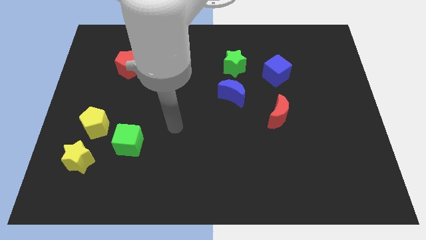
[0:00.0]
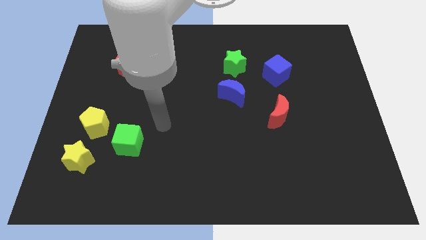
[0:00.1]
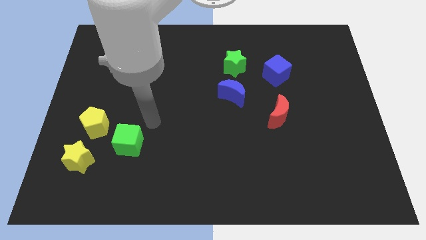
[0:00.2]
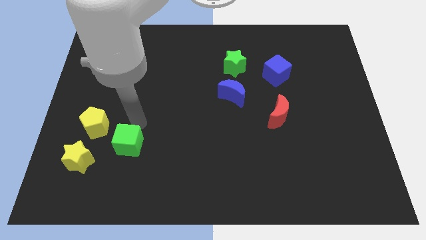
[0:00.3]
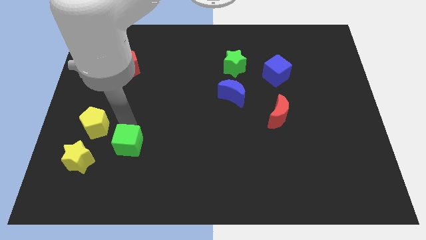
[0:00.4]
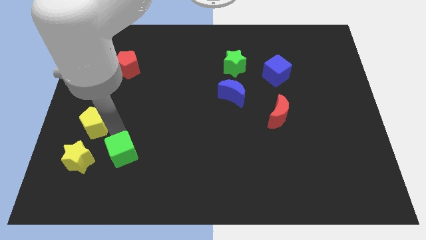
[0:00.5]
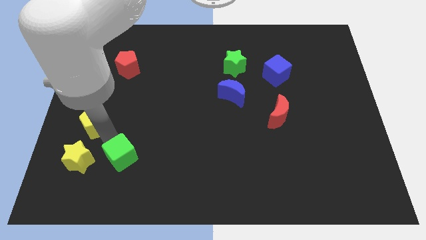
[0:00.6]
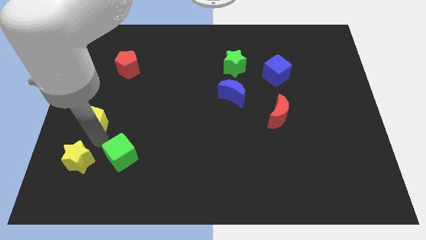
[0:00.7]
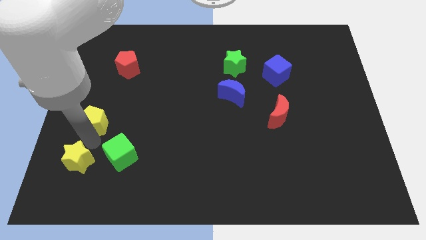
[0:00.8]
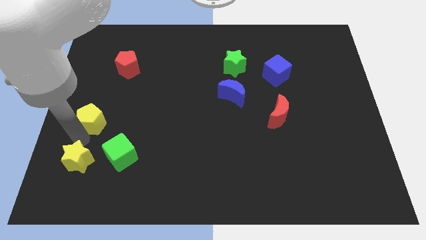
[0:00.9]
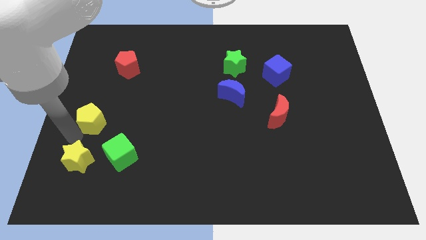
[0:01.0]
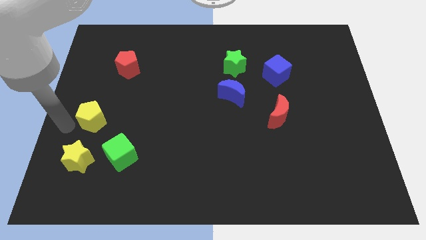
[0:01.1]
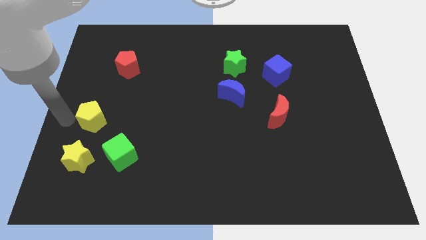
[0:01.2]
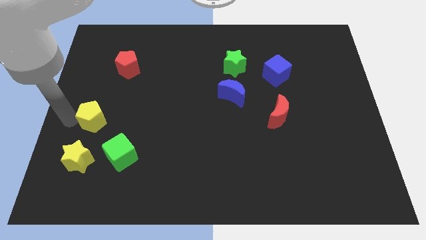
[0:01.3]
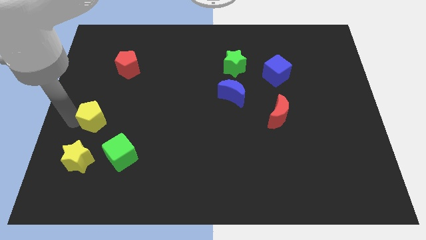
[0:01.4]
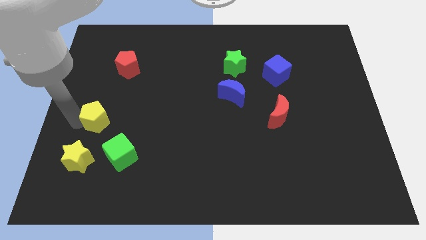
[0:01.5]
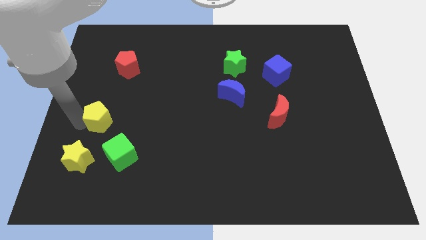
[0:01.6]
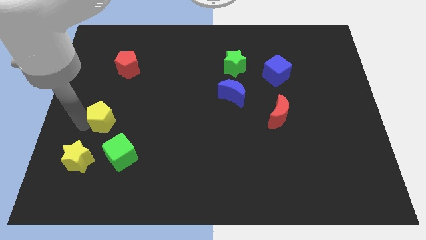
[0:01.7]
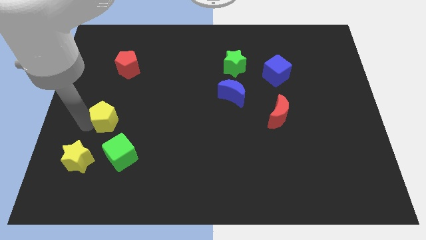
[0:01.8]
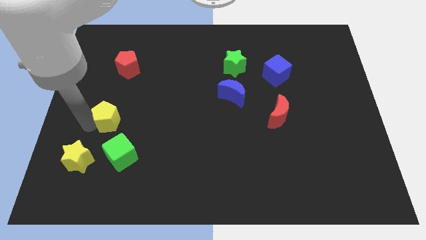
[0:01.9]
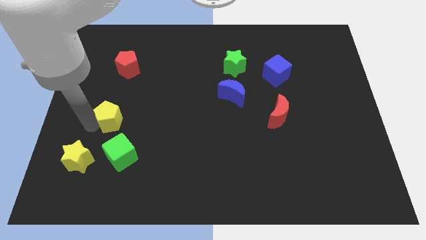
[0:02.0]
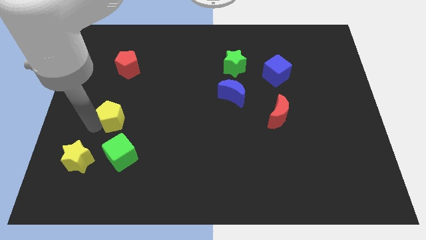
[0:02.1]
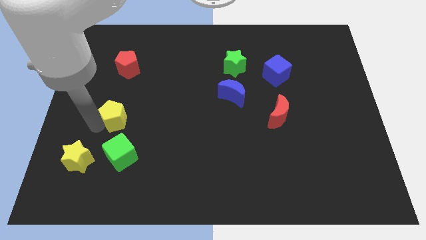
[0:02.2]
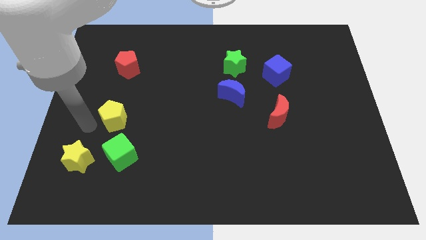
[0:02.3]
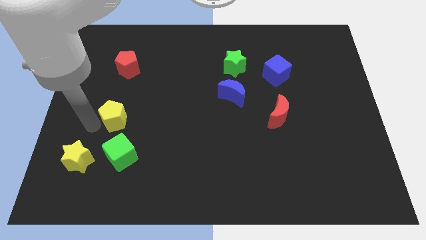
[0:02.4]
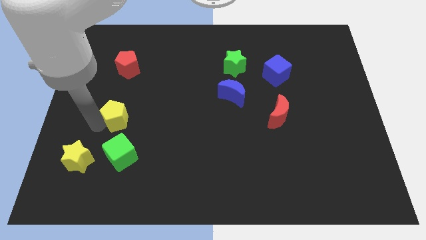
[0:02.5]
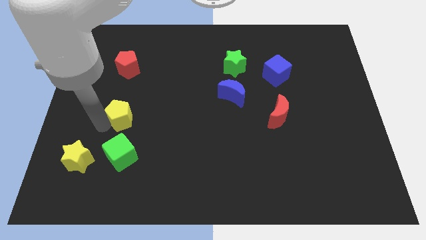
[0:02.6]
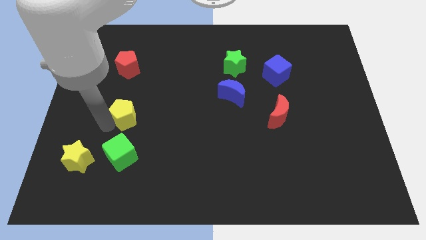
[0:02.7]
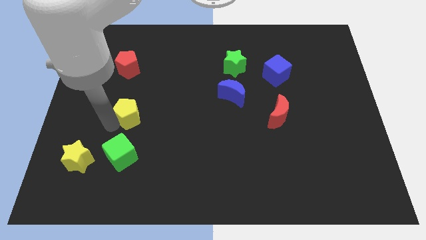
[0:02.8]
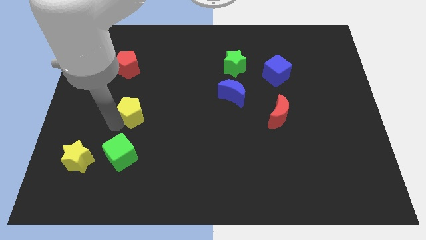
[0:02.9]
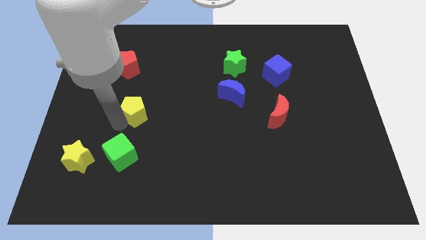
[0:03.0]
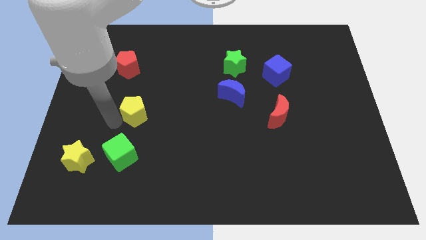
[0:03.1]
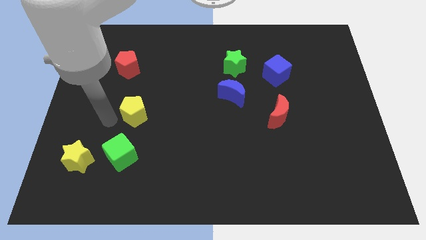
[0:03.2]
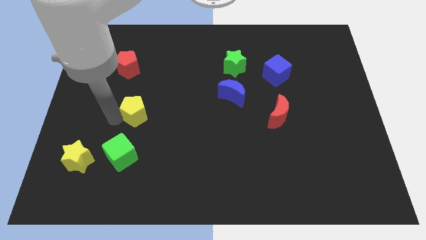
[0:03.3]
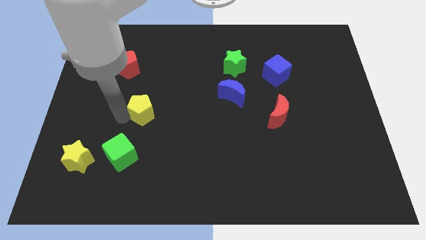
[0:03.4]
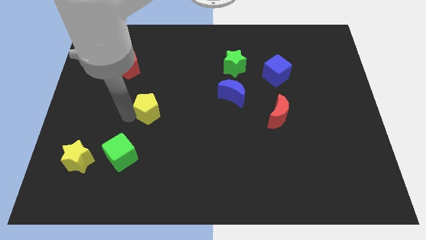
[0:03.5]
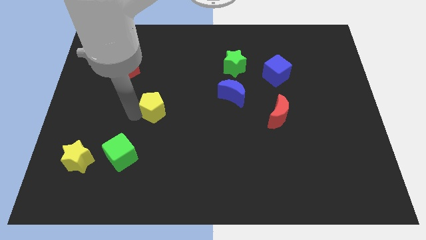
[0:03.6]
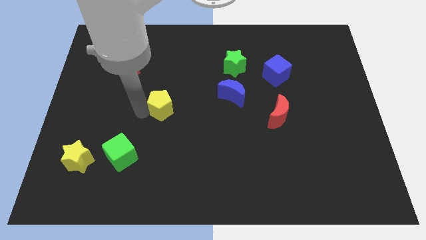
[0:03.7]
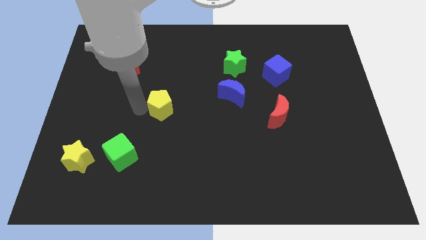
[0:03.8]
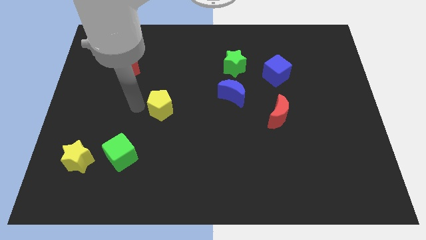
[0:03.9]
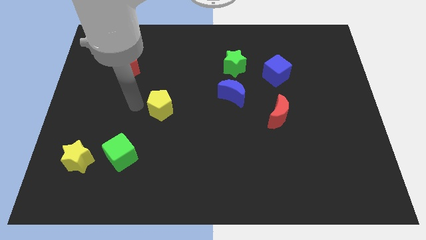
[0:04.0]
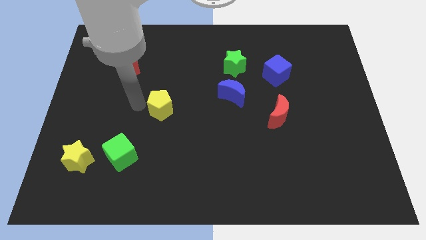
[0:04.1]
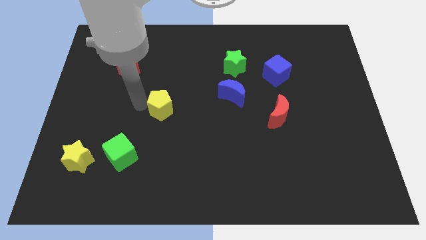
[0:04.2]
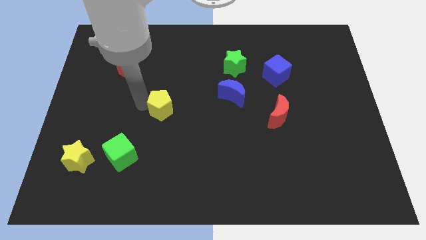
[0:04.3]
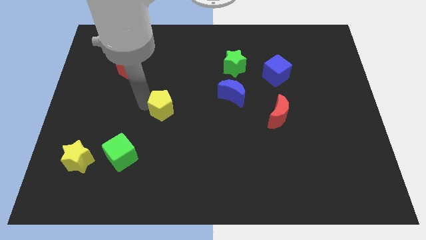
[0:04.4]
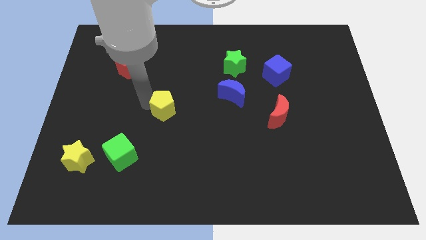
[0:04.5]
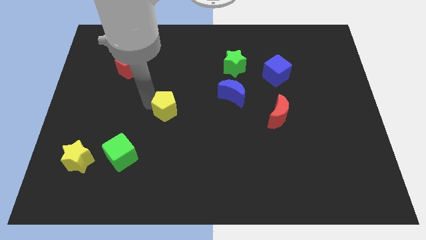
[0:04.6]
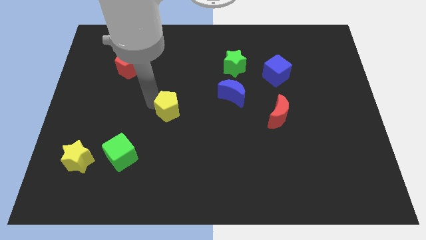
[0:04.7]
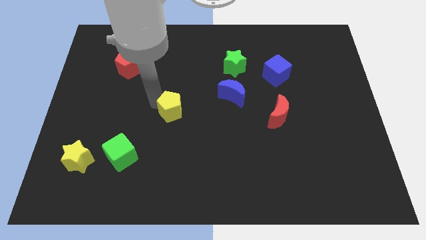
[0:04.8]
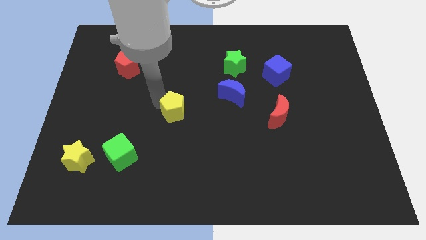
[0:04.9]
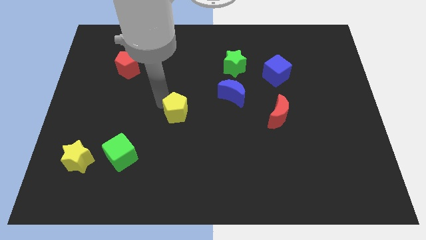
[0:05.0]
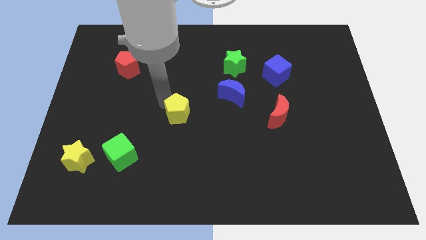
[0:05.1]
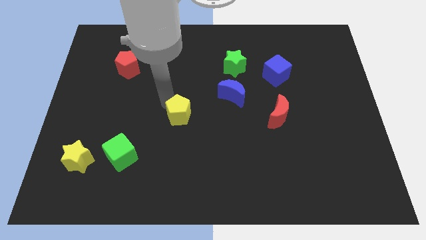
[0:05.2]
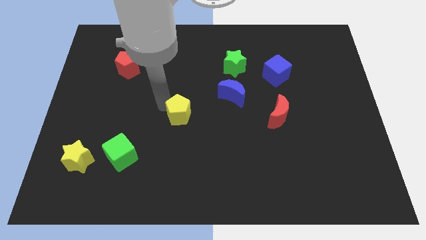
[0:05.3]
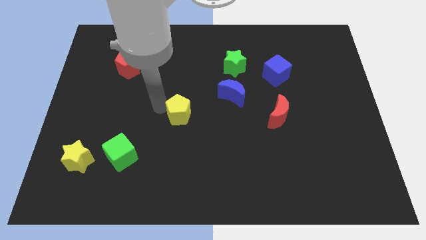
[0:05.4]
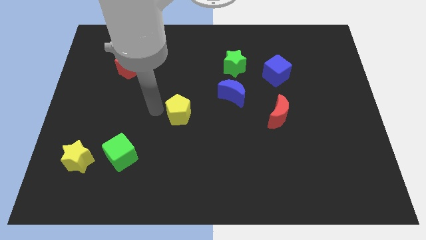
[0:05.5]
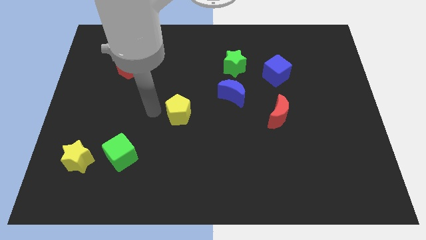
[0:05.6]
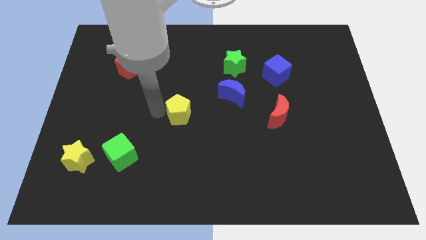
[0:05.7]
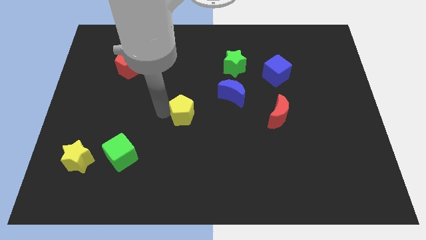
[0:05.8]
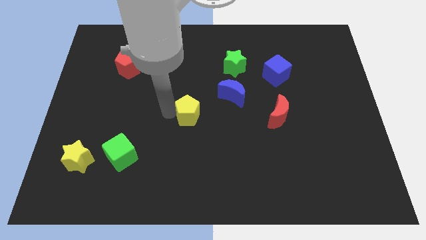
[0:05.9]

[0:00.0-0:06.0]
push the yellow pentagon right

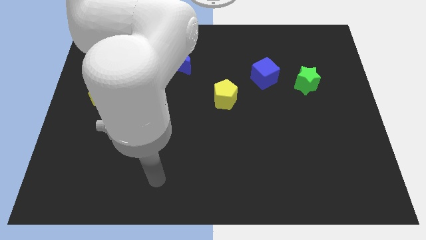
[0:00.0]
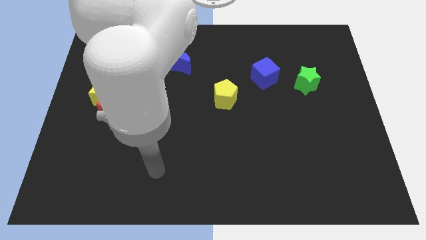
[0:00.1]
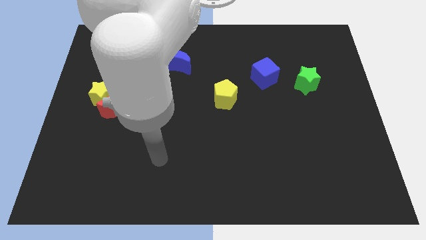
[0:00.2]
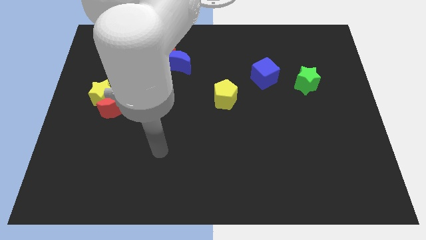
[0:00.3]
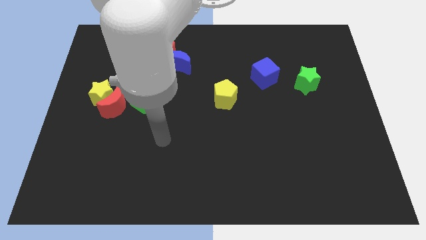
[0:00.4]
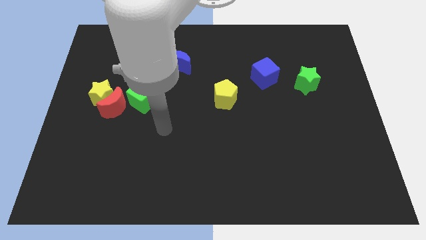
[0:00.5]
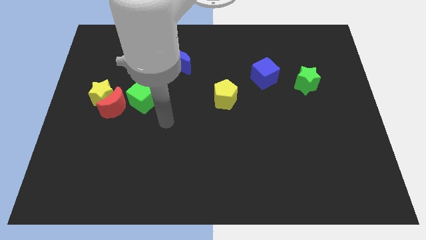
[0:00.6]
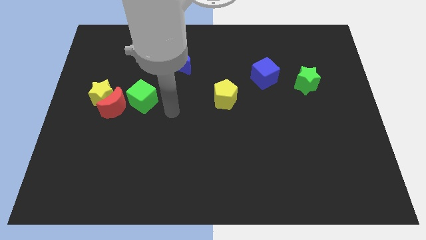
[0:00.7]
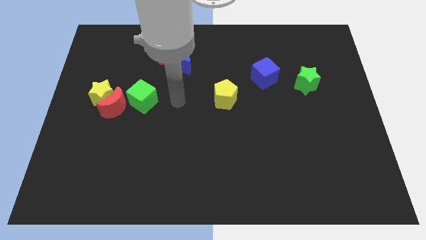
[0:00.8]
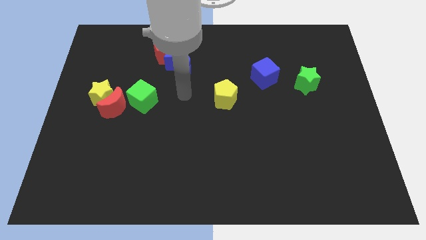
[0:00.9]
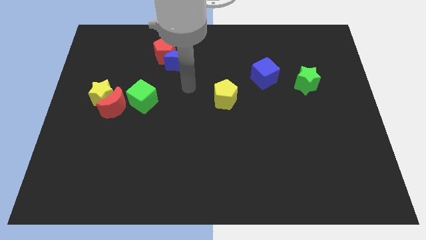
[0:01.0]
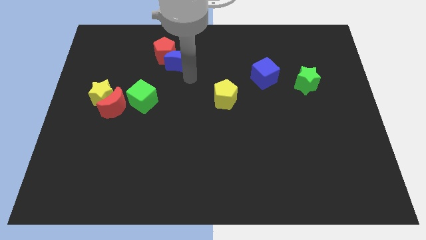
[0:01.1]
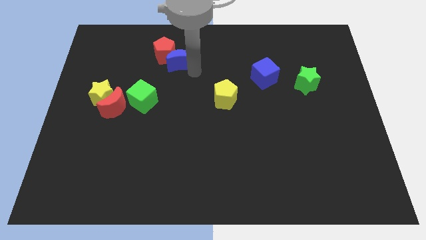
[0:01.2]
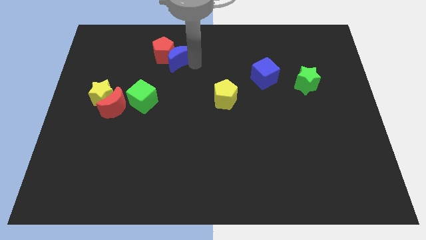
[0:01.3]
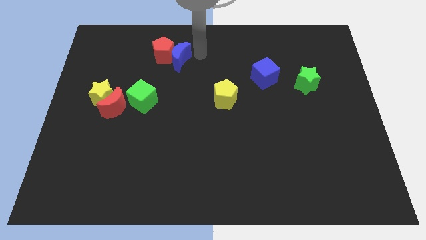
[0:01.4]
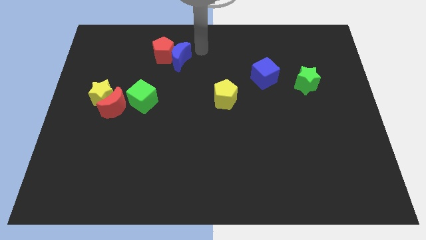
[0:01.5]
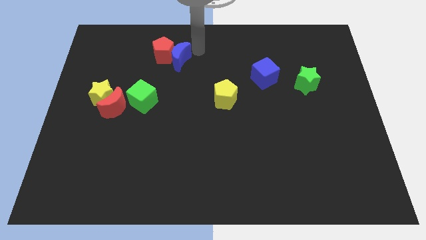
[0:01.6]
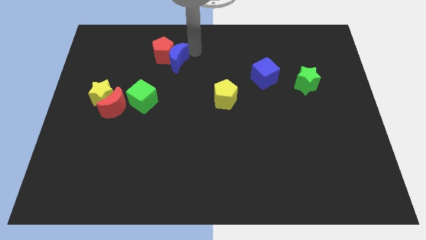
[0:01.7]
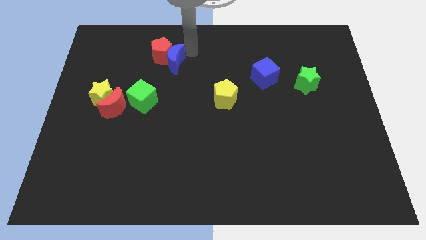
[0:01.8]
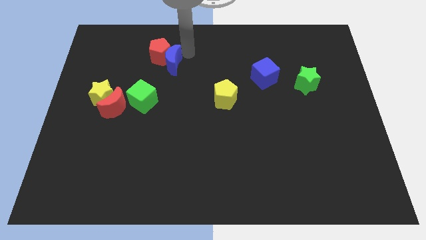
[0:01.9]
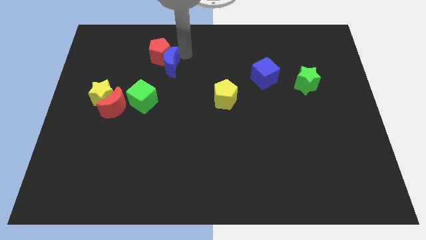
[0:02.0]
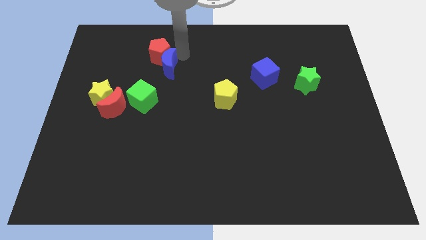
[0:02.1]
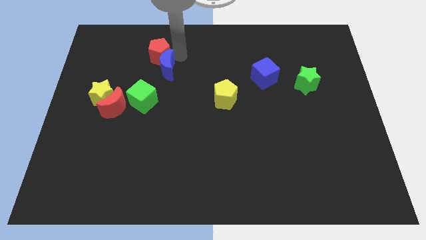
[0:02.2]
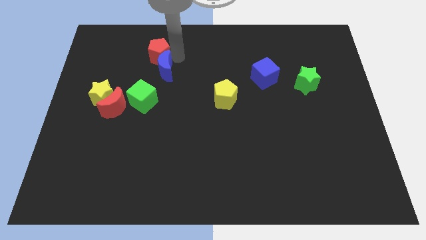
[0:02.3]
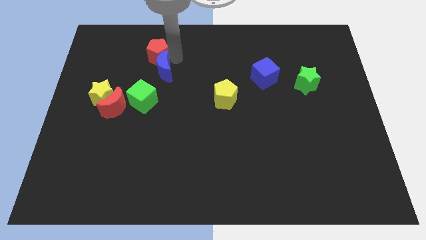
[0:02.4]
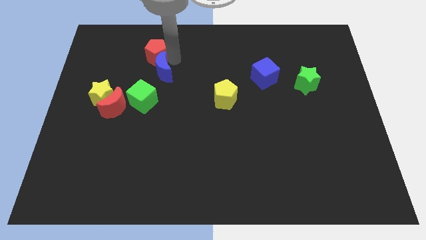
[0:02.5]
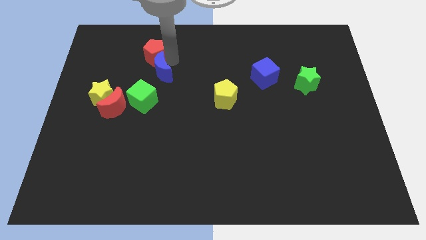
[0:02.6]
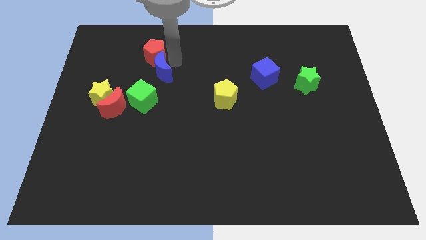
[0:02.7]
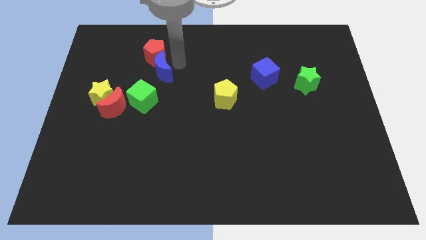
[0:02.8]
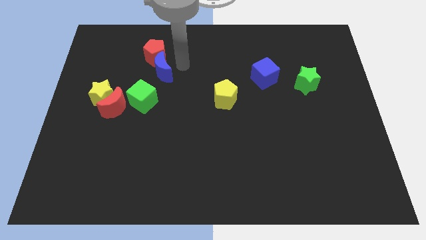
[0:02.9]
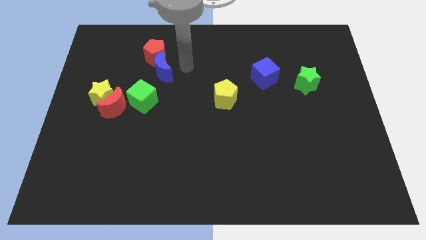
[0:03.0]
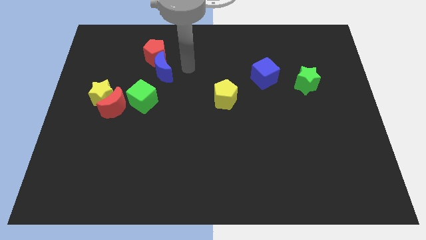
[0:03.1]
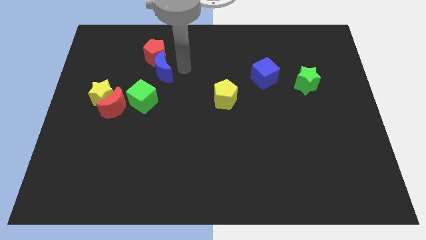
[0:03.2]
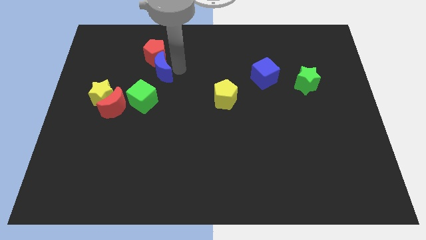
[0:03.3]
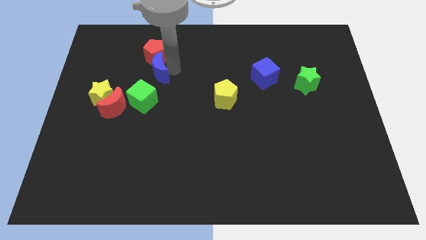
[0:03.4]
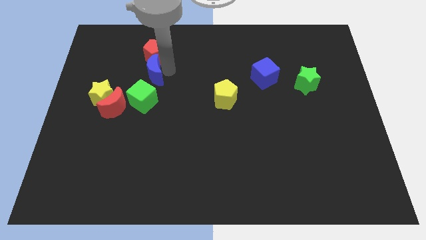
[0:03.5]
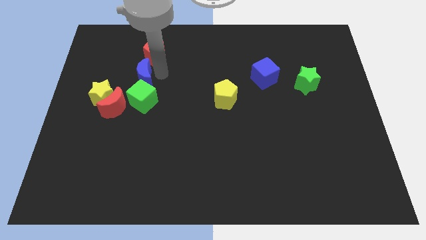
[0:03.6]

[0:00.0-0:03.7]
move the blue moon to the left a little bit
